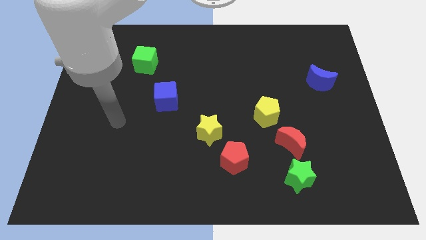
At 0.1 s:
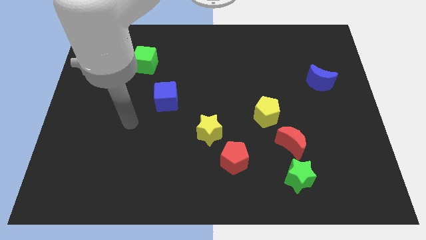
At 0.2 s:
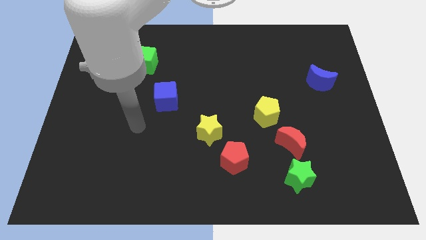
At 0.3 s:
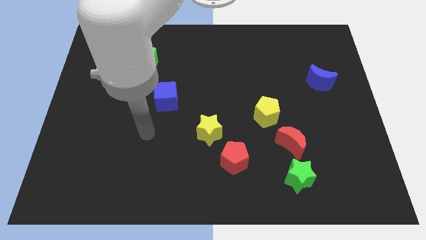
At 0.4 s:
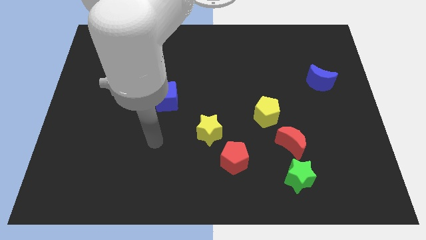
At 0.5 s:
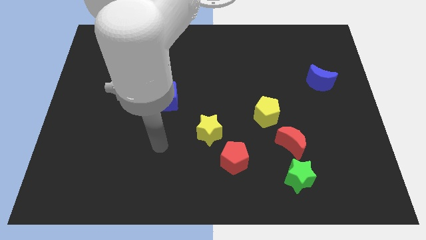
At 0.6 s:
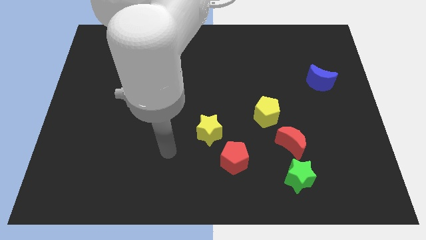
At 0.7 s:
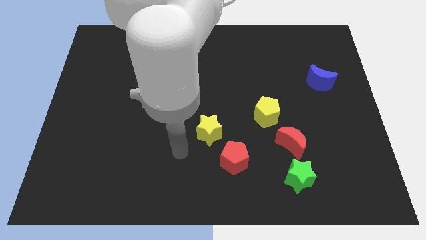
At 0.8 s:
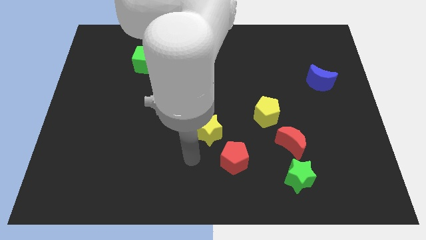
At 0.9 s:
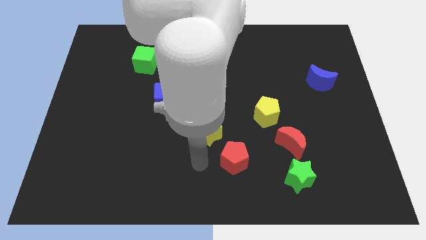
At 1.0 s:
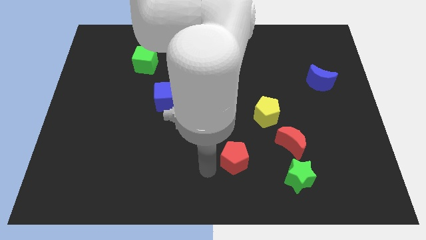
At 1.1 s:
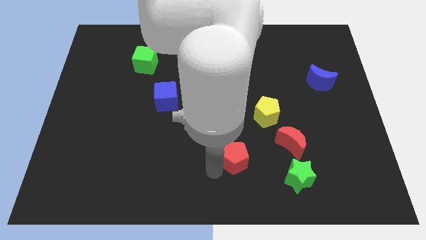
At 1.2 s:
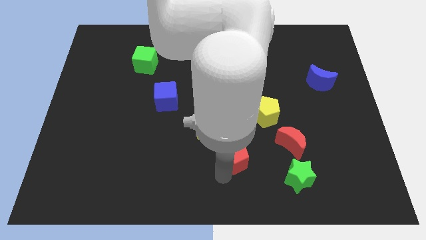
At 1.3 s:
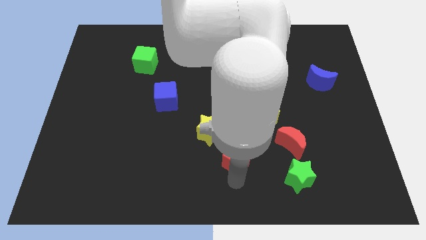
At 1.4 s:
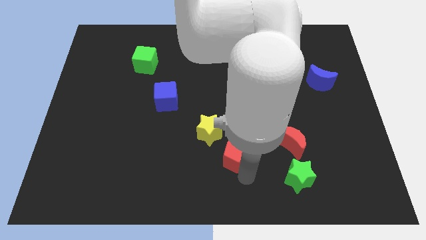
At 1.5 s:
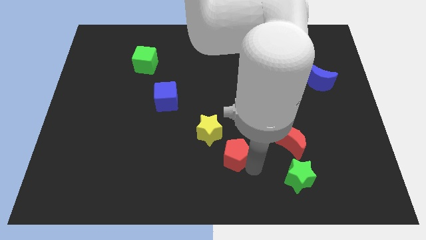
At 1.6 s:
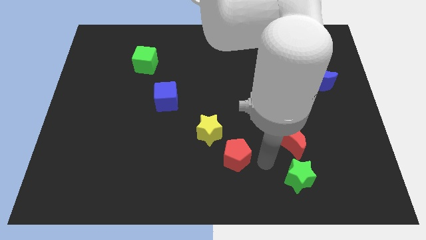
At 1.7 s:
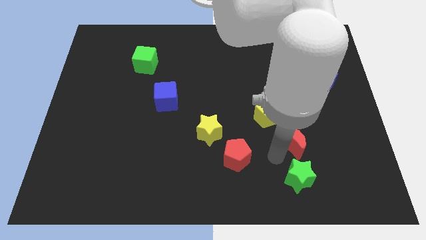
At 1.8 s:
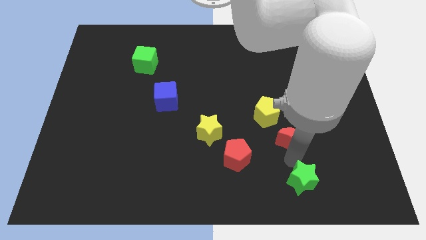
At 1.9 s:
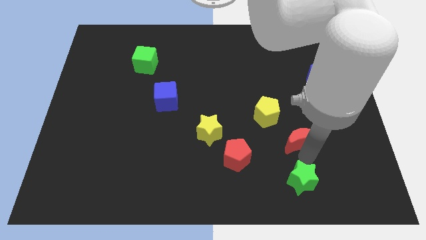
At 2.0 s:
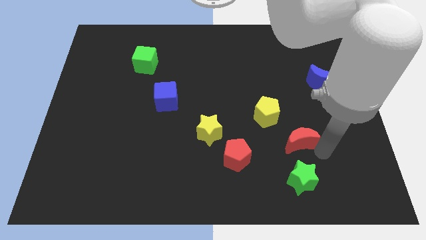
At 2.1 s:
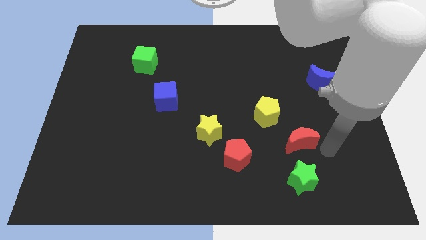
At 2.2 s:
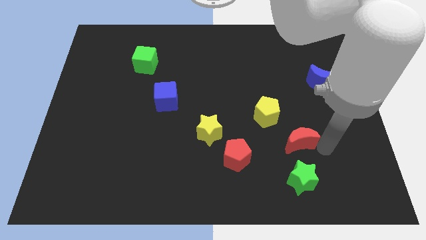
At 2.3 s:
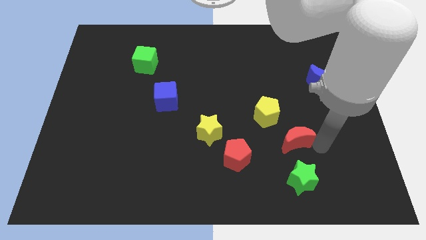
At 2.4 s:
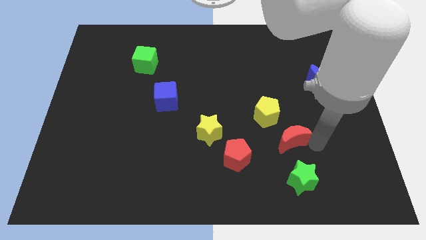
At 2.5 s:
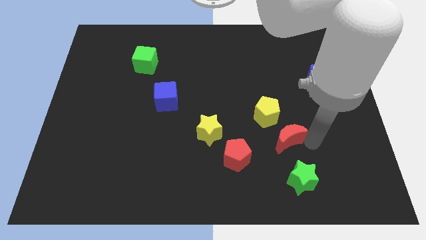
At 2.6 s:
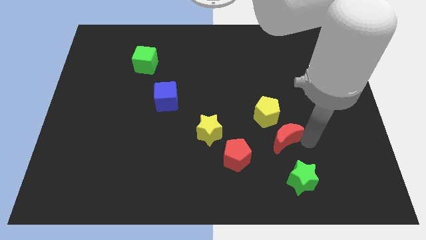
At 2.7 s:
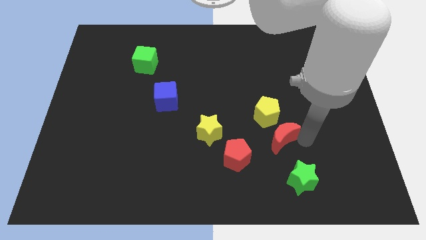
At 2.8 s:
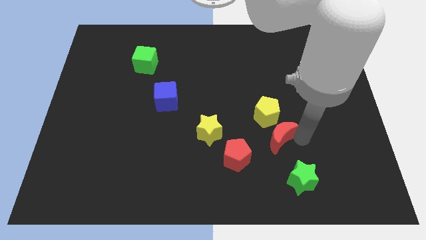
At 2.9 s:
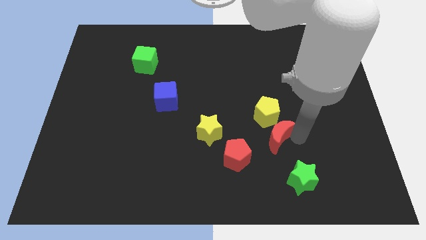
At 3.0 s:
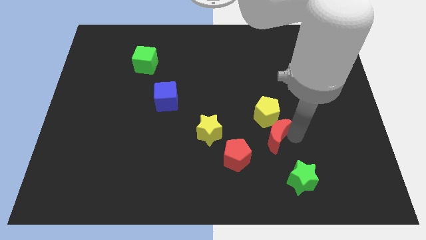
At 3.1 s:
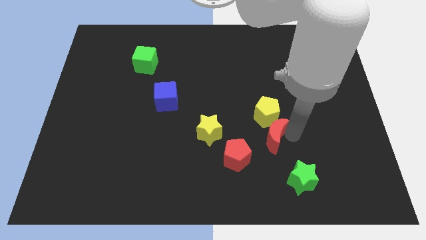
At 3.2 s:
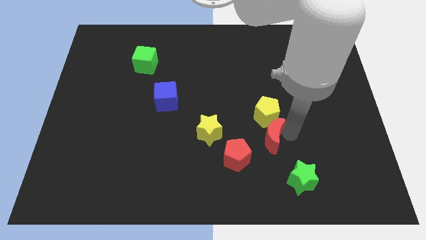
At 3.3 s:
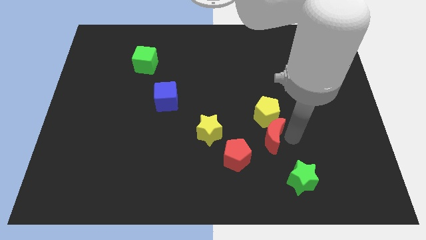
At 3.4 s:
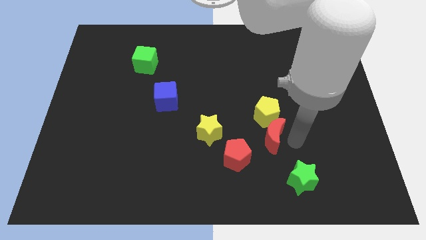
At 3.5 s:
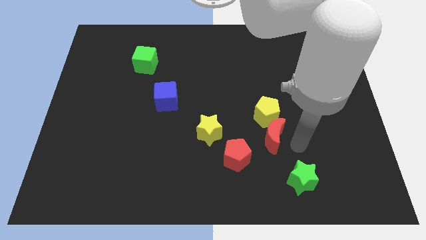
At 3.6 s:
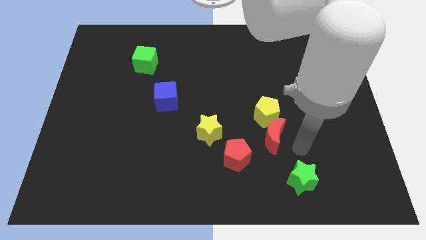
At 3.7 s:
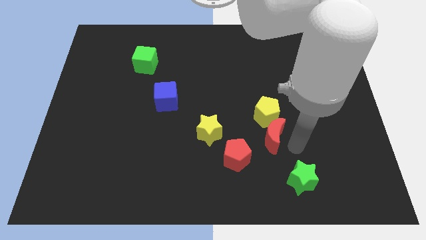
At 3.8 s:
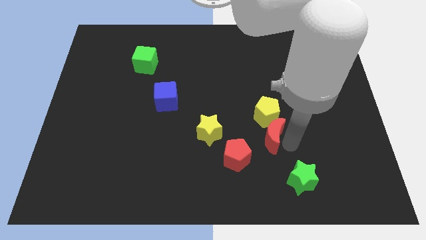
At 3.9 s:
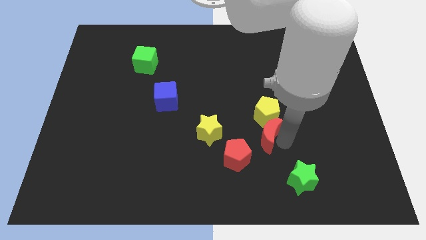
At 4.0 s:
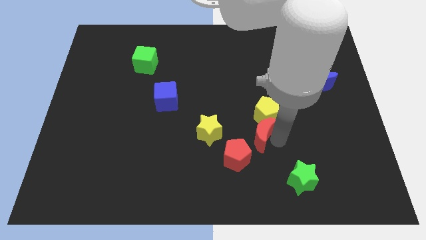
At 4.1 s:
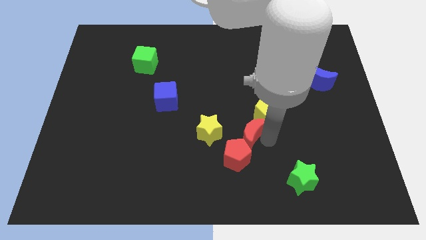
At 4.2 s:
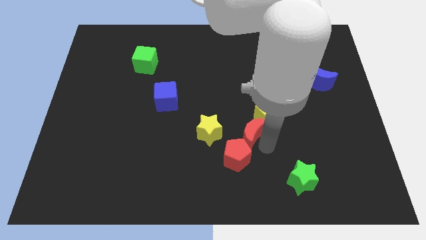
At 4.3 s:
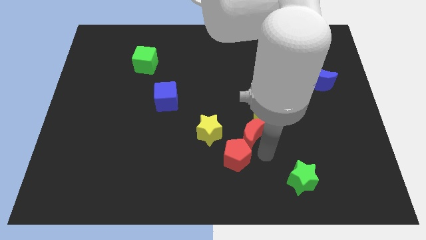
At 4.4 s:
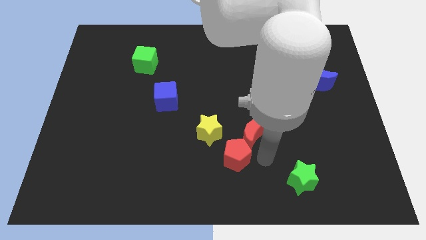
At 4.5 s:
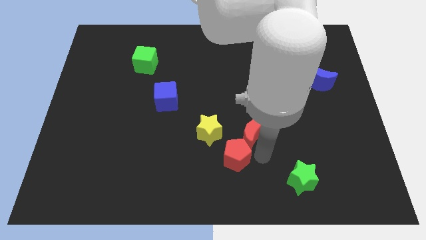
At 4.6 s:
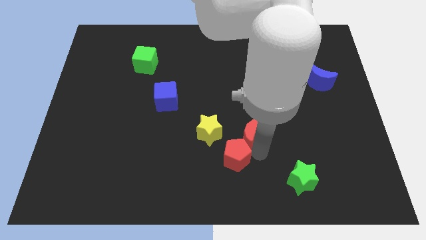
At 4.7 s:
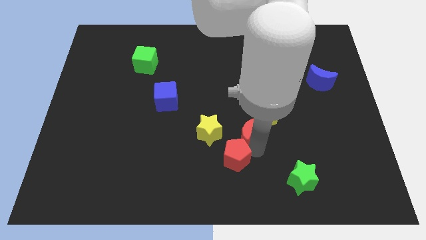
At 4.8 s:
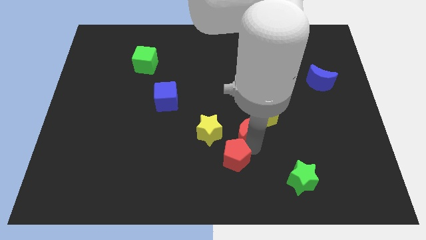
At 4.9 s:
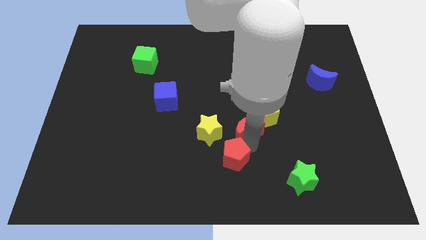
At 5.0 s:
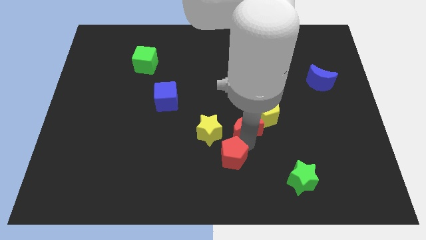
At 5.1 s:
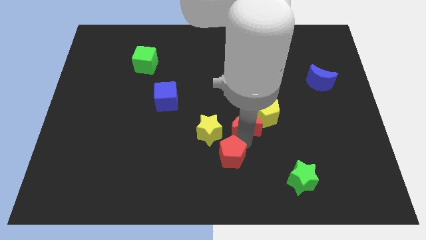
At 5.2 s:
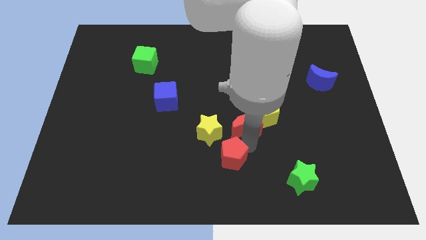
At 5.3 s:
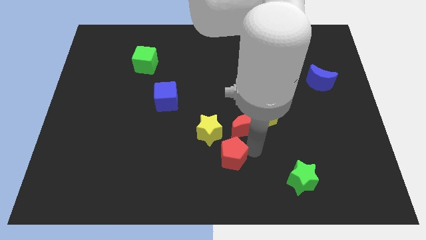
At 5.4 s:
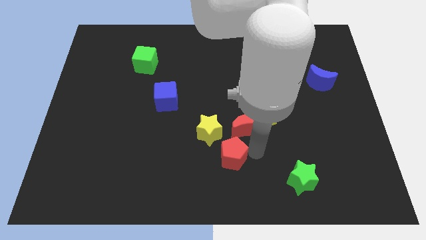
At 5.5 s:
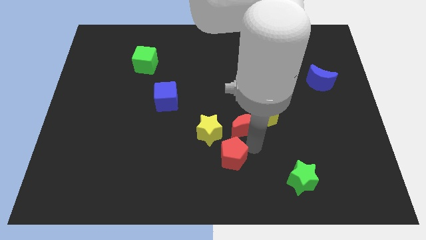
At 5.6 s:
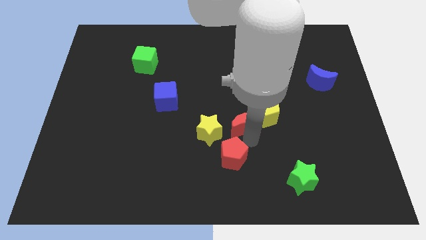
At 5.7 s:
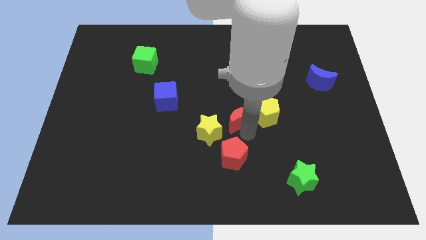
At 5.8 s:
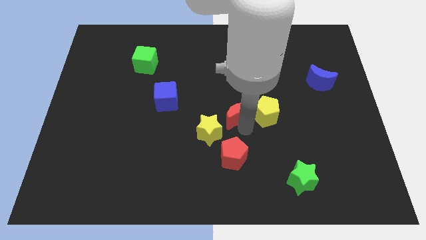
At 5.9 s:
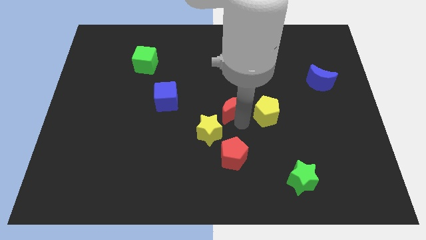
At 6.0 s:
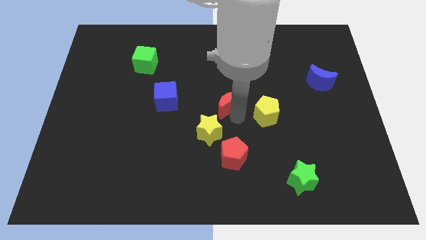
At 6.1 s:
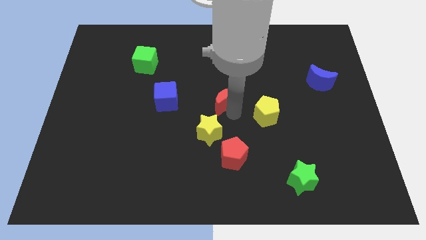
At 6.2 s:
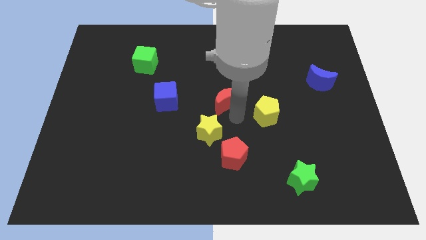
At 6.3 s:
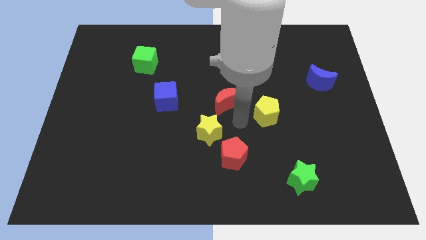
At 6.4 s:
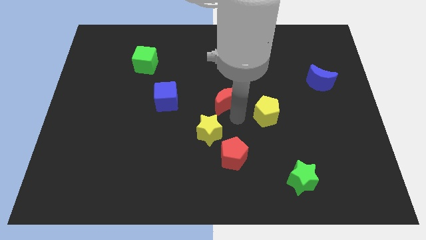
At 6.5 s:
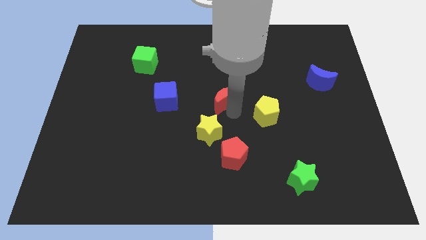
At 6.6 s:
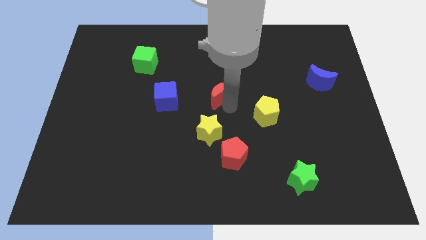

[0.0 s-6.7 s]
push the red moon upwards and then to the left

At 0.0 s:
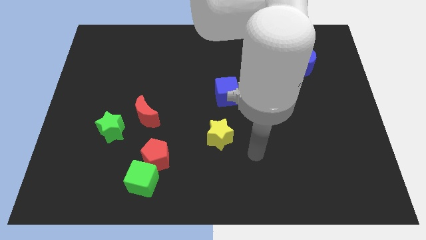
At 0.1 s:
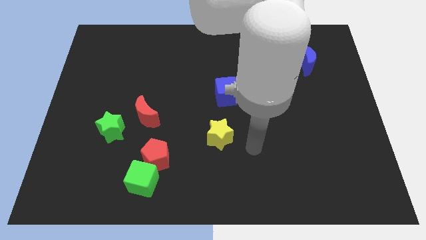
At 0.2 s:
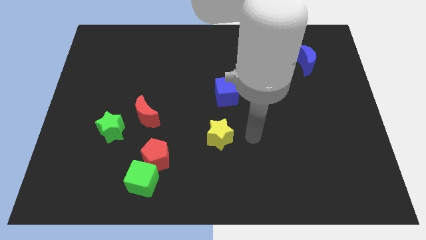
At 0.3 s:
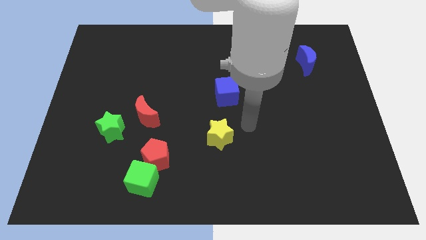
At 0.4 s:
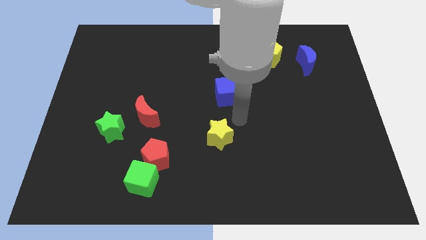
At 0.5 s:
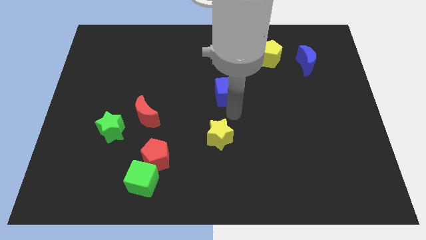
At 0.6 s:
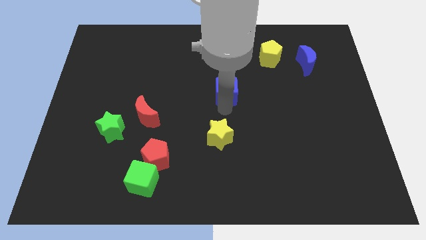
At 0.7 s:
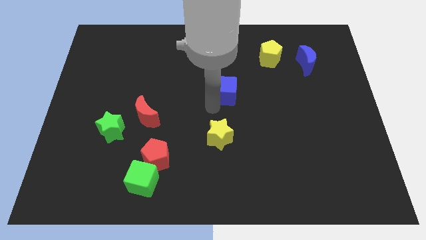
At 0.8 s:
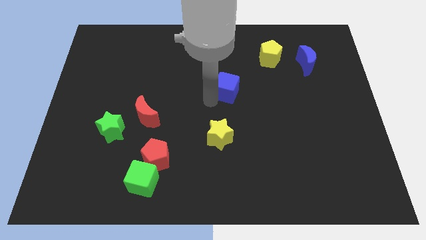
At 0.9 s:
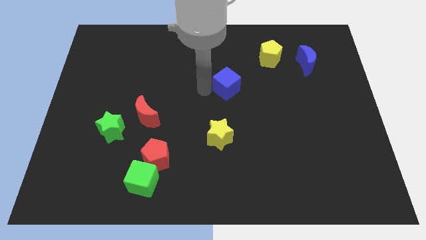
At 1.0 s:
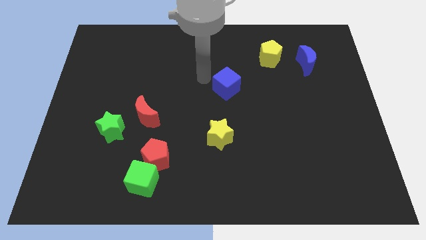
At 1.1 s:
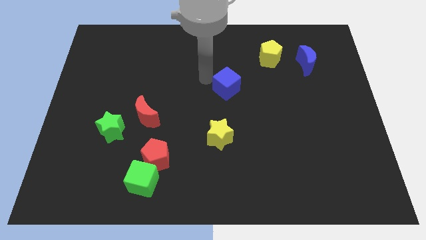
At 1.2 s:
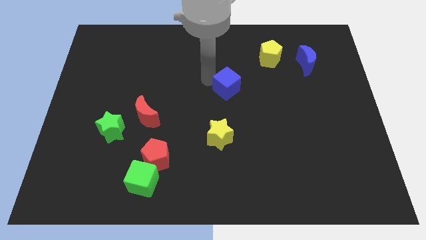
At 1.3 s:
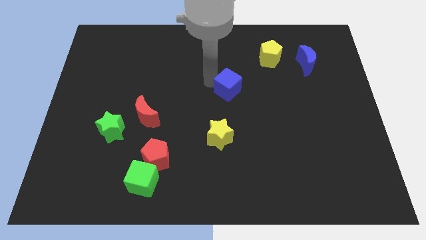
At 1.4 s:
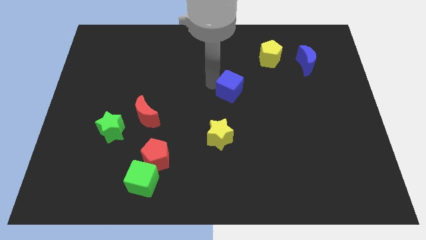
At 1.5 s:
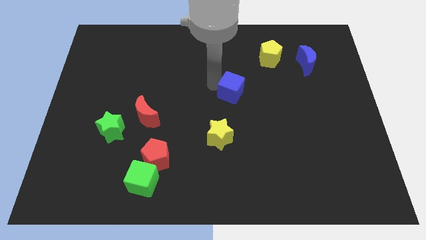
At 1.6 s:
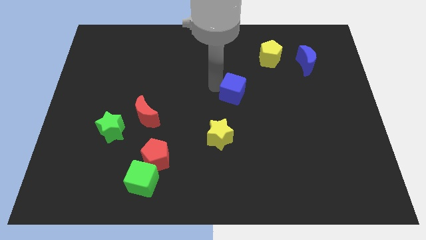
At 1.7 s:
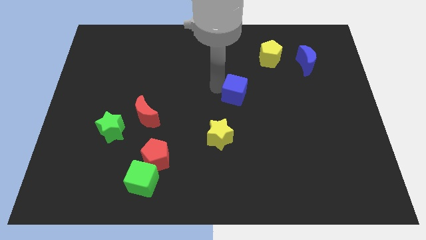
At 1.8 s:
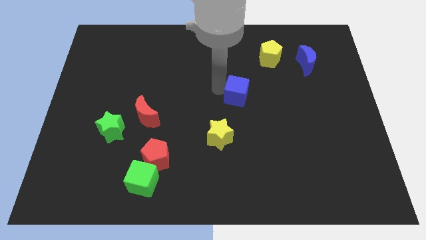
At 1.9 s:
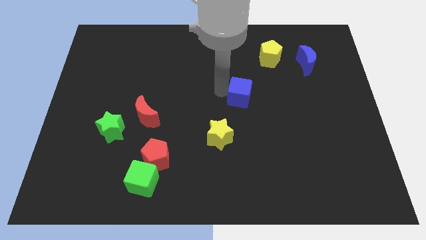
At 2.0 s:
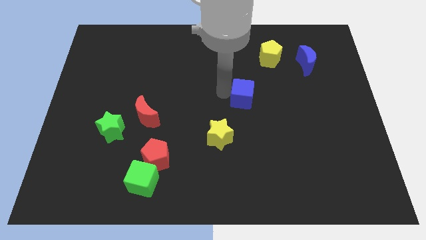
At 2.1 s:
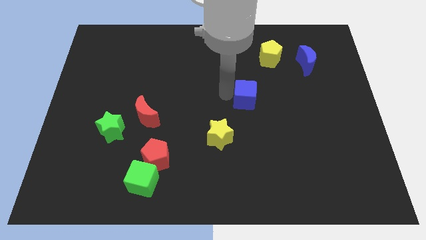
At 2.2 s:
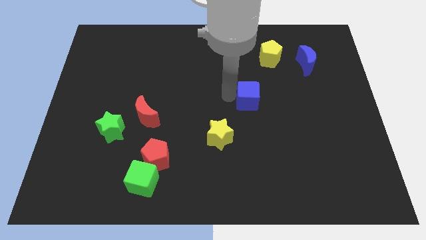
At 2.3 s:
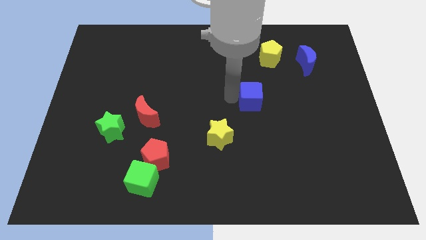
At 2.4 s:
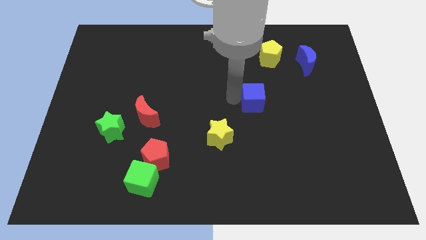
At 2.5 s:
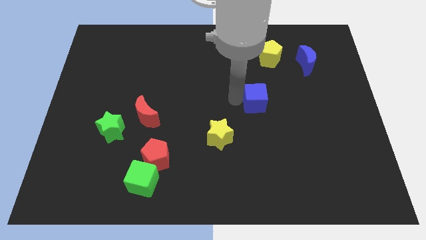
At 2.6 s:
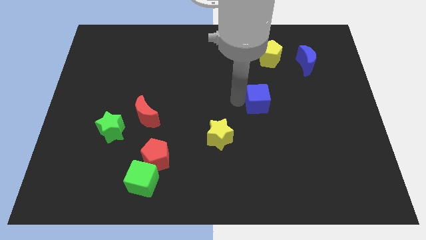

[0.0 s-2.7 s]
slide the blue cube a bit right
